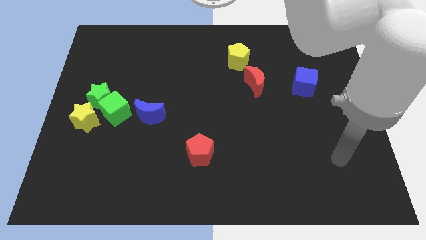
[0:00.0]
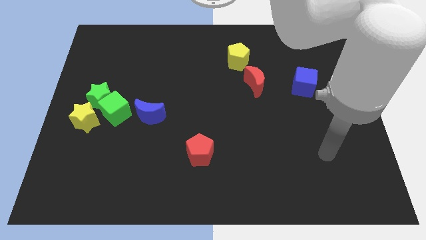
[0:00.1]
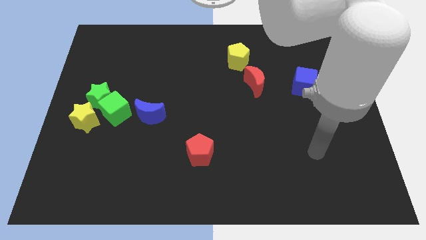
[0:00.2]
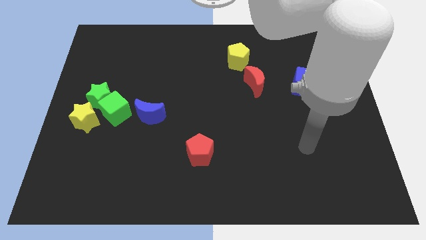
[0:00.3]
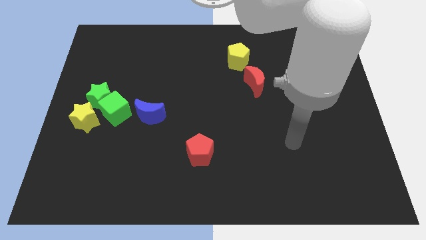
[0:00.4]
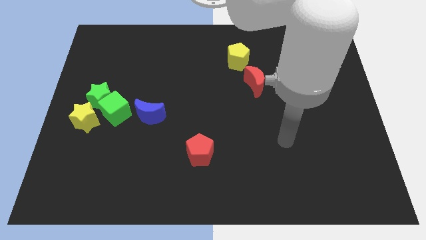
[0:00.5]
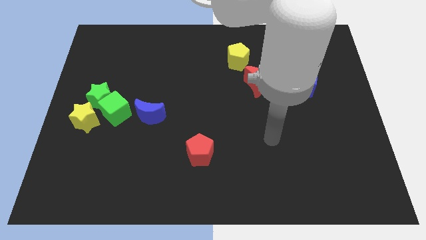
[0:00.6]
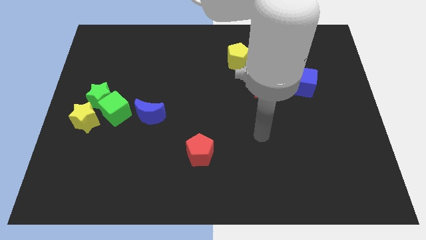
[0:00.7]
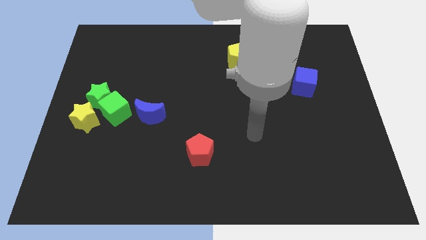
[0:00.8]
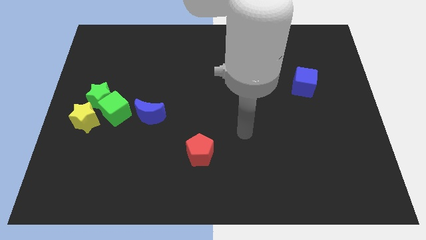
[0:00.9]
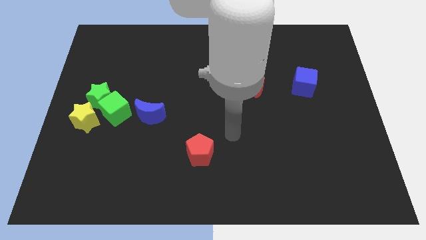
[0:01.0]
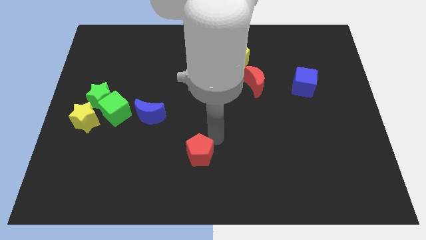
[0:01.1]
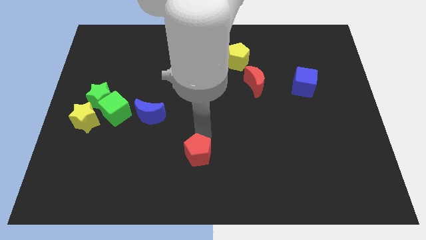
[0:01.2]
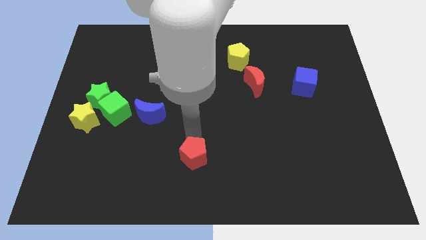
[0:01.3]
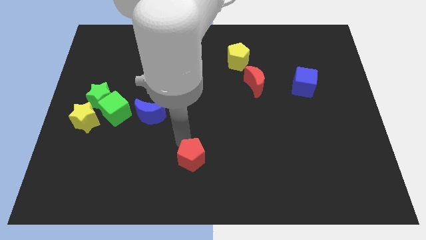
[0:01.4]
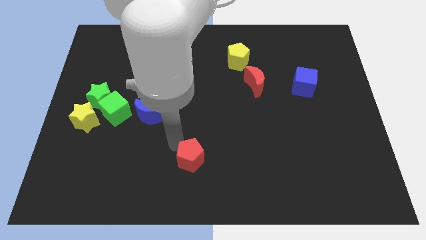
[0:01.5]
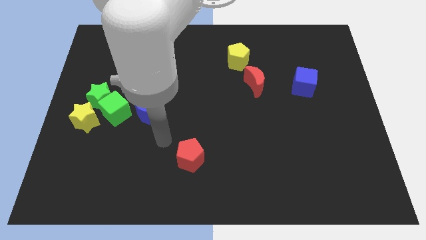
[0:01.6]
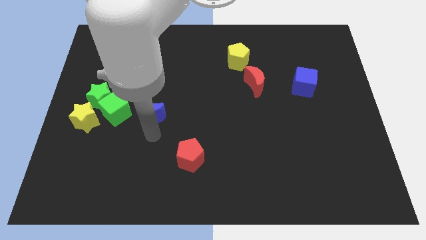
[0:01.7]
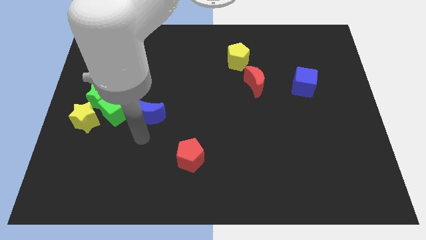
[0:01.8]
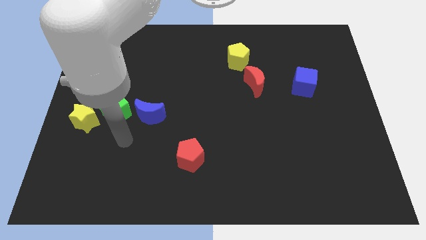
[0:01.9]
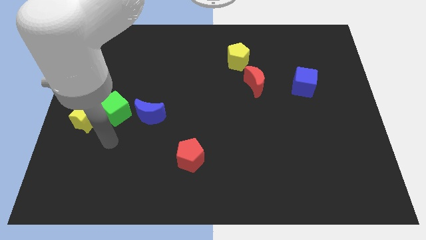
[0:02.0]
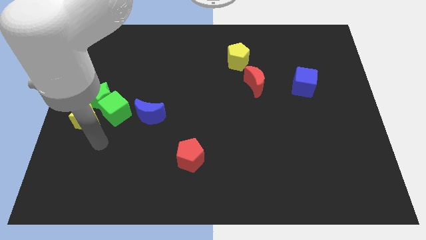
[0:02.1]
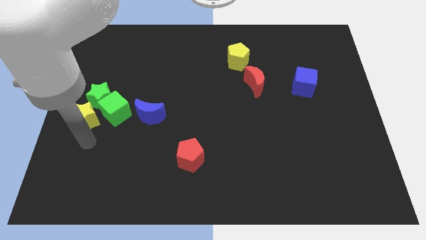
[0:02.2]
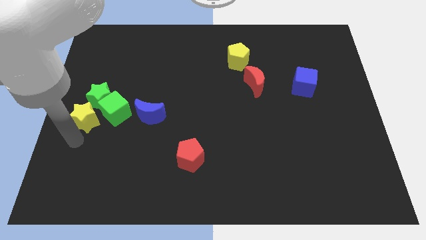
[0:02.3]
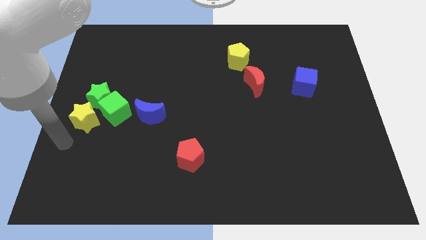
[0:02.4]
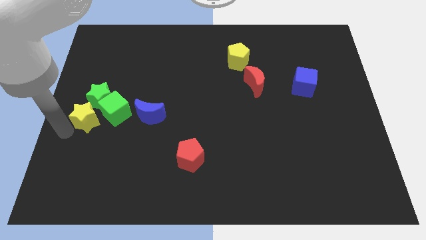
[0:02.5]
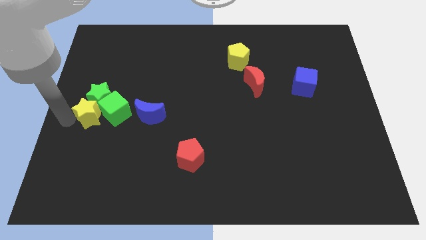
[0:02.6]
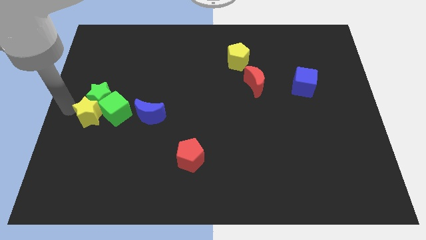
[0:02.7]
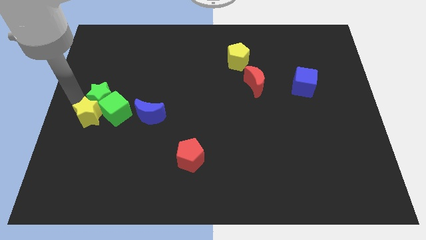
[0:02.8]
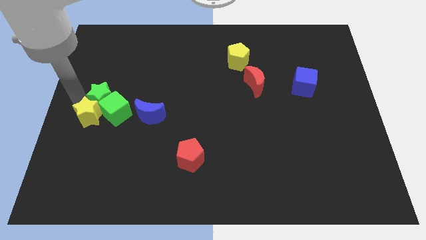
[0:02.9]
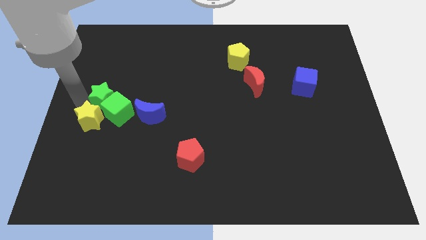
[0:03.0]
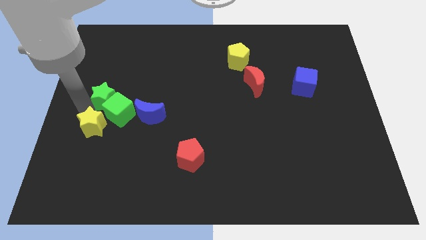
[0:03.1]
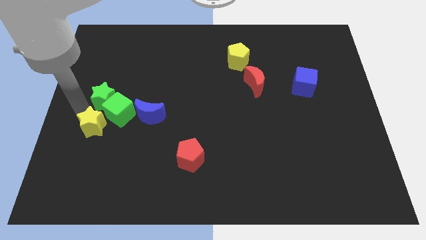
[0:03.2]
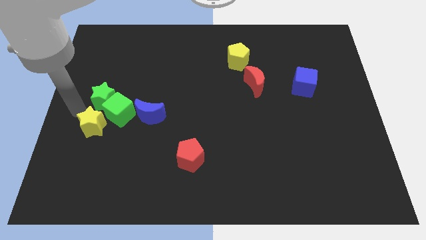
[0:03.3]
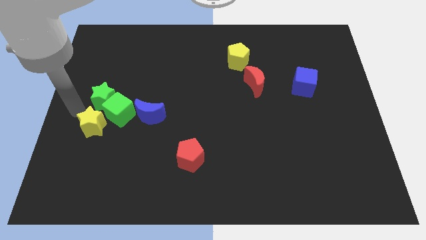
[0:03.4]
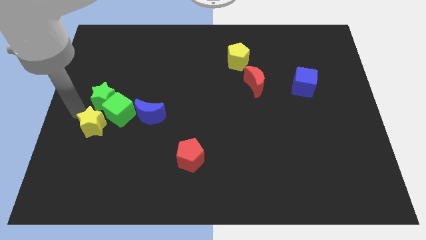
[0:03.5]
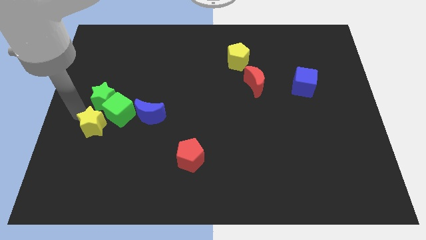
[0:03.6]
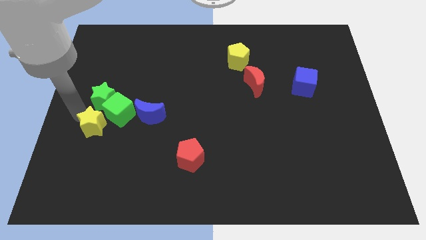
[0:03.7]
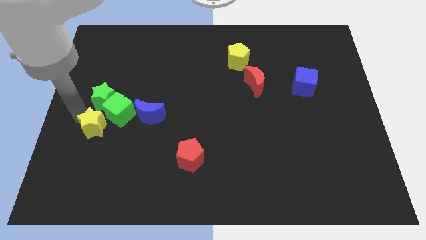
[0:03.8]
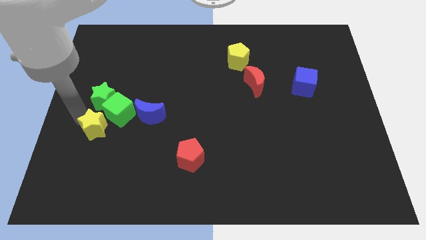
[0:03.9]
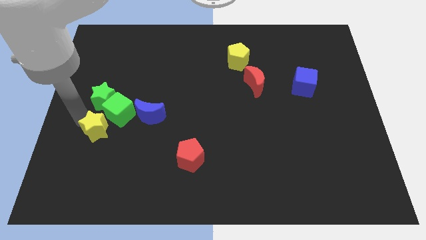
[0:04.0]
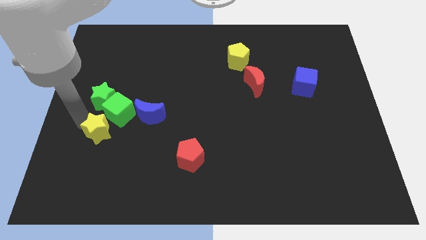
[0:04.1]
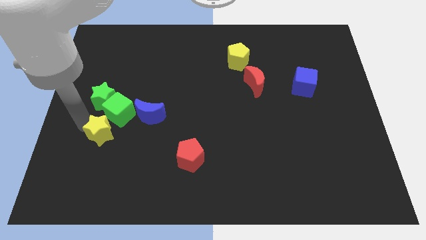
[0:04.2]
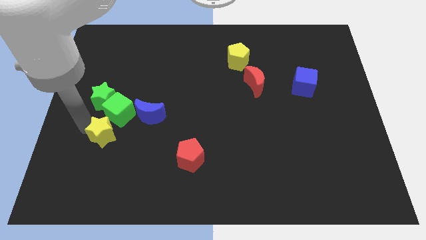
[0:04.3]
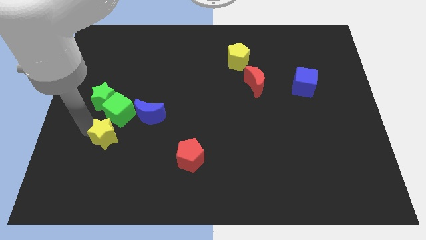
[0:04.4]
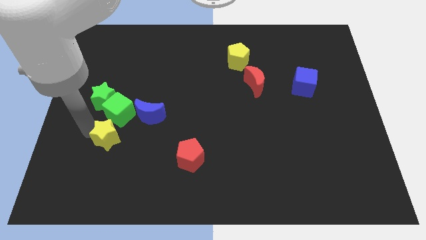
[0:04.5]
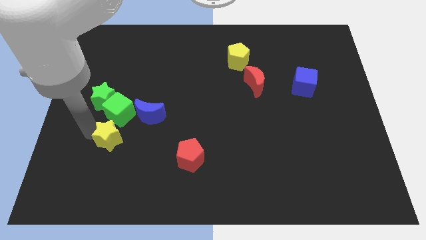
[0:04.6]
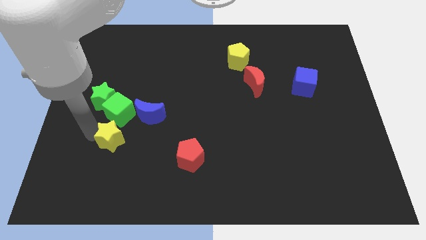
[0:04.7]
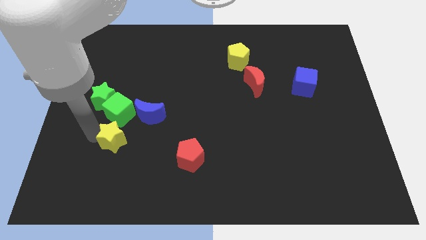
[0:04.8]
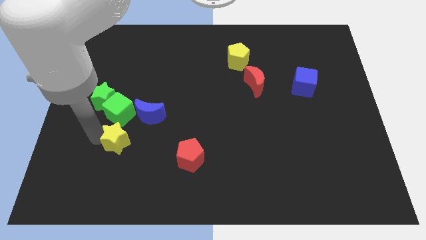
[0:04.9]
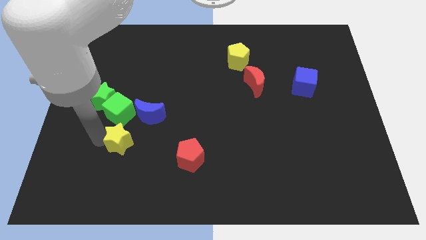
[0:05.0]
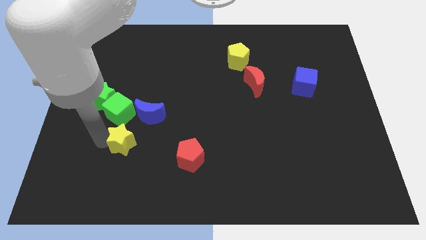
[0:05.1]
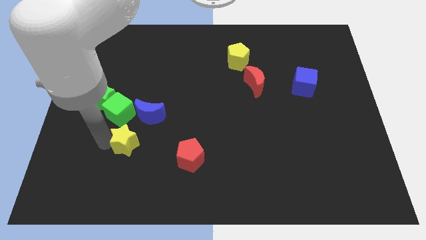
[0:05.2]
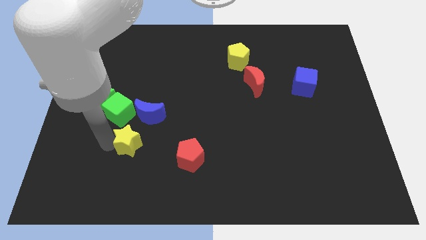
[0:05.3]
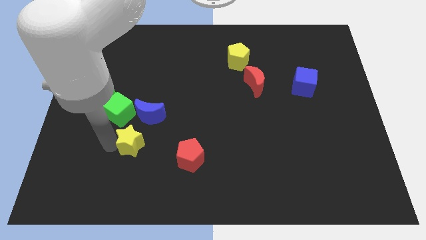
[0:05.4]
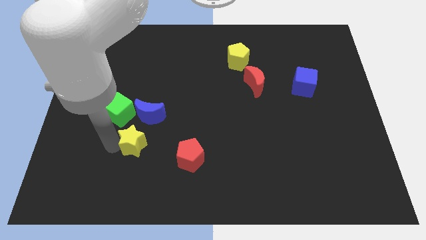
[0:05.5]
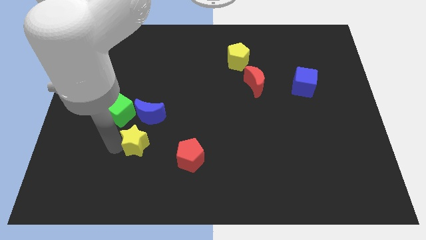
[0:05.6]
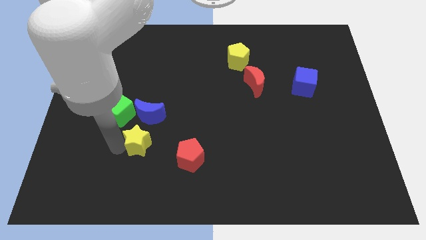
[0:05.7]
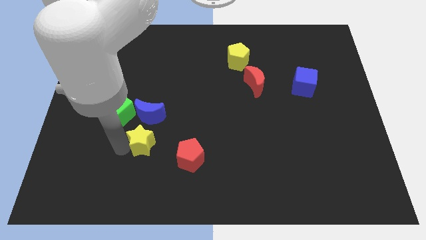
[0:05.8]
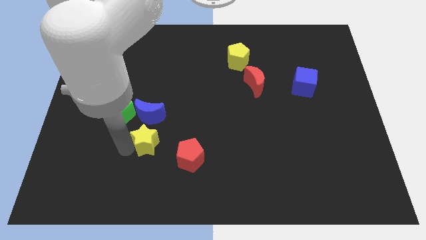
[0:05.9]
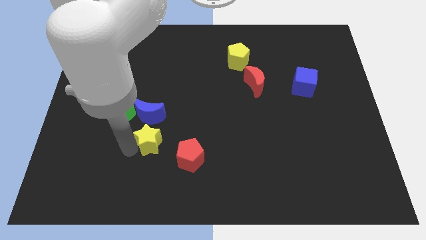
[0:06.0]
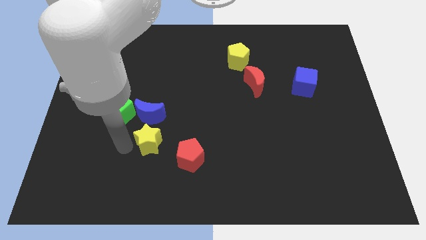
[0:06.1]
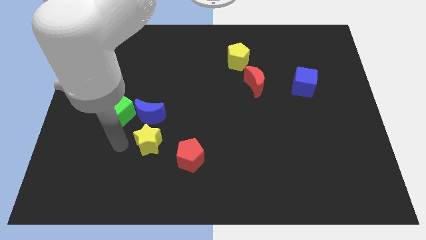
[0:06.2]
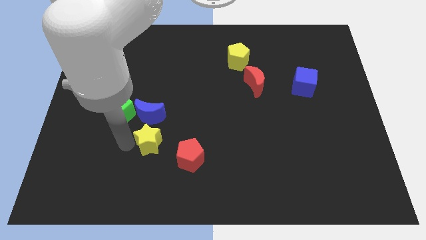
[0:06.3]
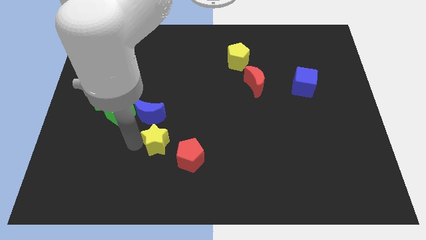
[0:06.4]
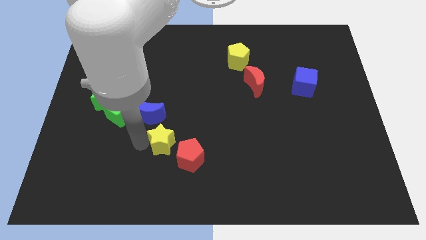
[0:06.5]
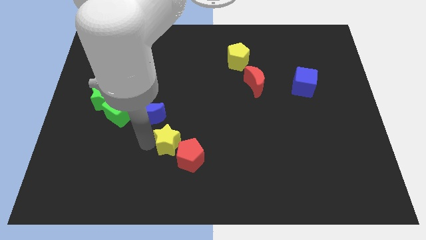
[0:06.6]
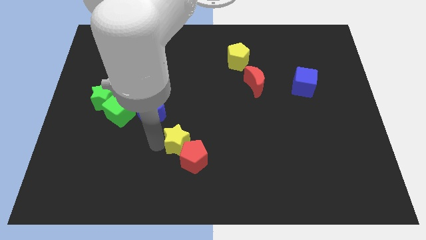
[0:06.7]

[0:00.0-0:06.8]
slide the yellow star to the right

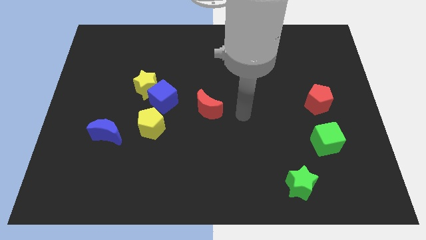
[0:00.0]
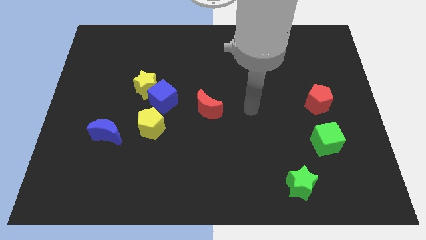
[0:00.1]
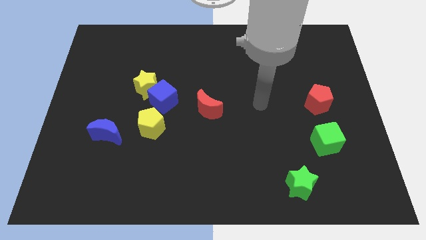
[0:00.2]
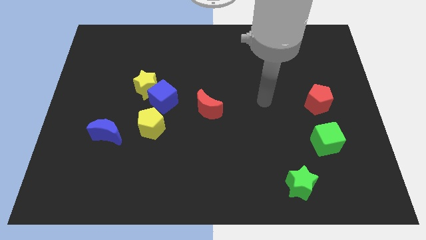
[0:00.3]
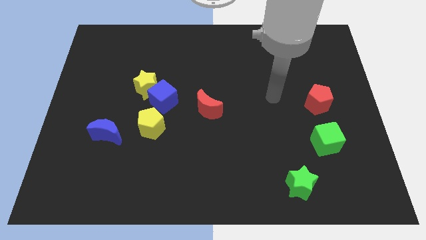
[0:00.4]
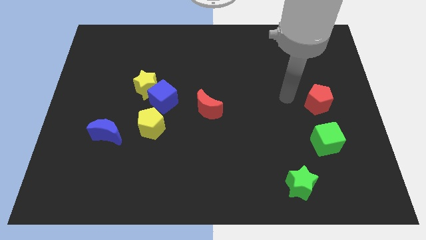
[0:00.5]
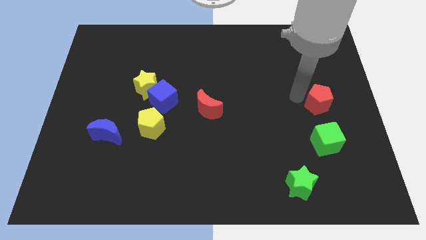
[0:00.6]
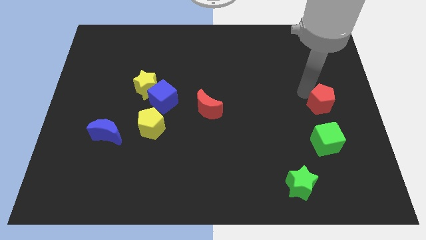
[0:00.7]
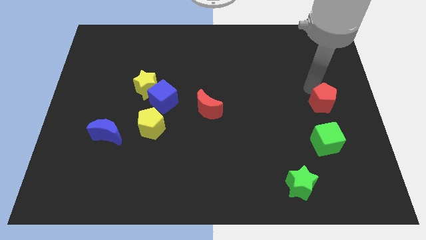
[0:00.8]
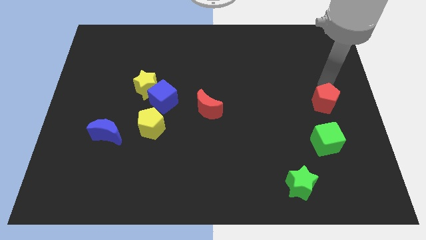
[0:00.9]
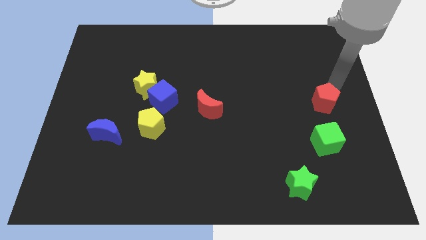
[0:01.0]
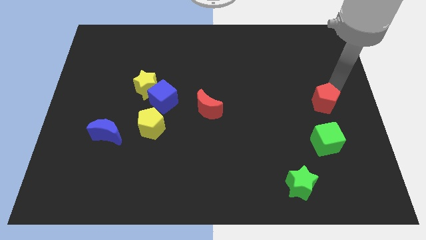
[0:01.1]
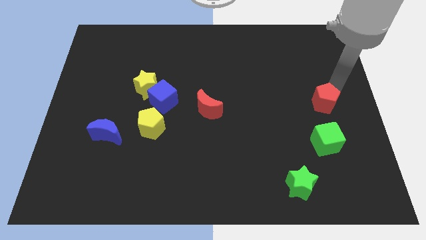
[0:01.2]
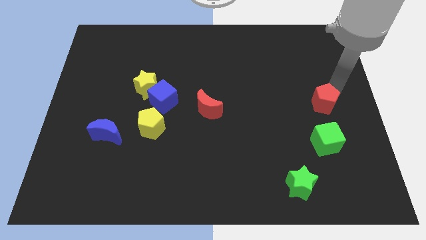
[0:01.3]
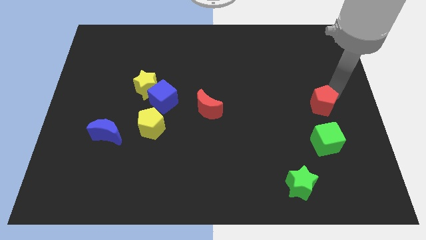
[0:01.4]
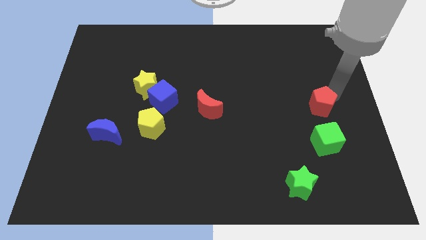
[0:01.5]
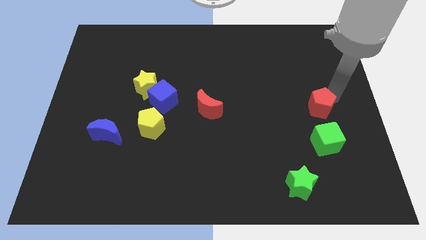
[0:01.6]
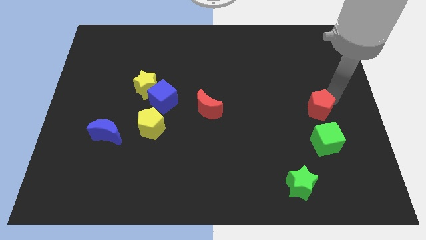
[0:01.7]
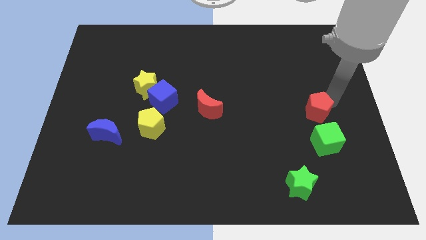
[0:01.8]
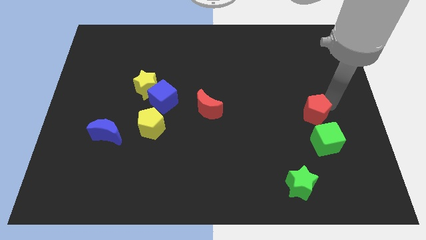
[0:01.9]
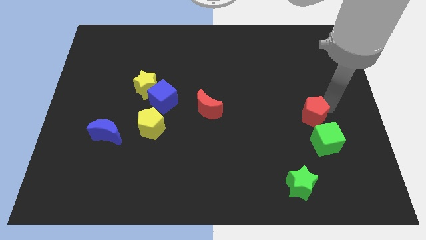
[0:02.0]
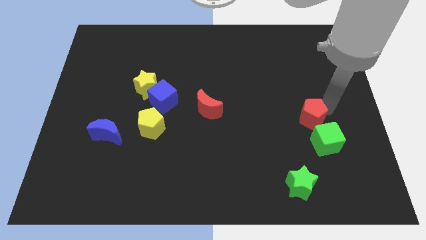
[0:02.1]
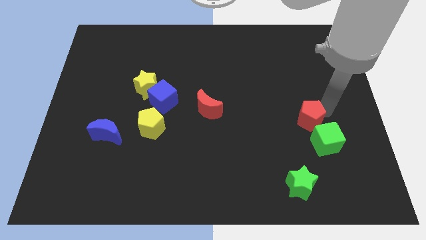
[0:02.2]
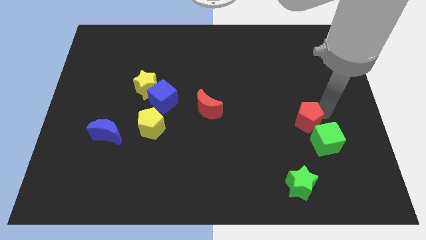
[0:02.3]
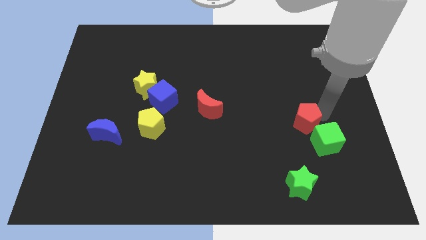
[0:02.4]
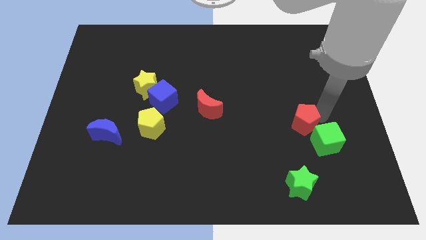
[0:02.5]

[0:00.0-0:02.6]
slightly move the red pentagon down and to the left
